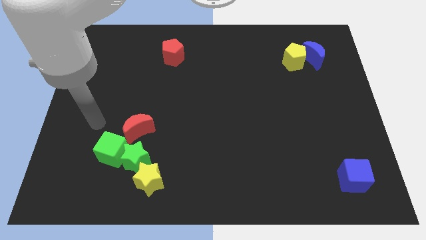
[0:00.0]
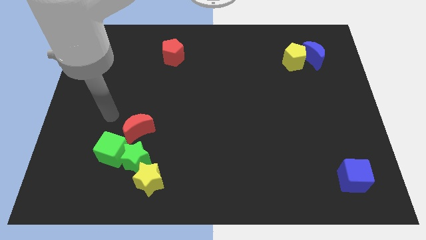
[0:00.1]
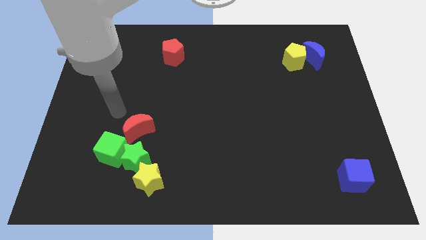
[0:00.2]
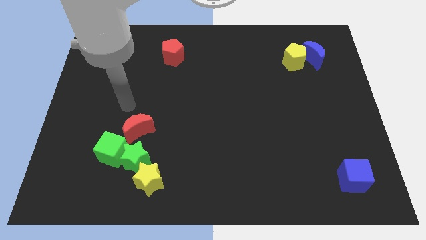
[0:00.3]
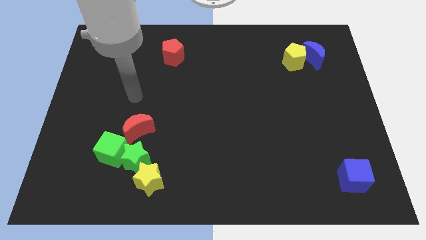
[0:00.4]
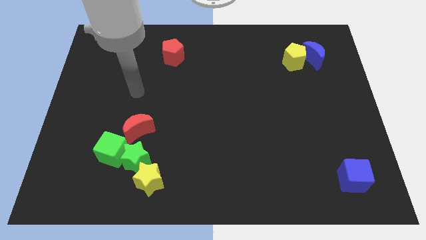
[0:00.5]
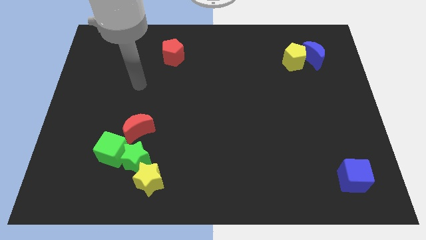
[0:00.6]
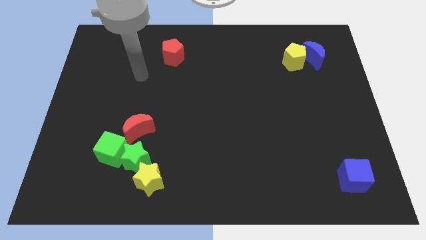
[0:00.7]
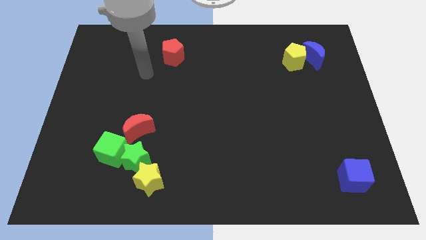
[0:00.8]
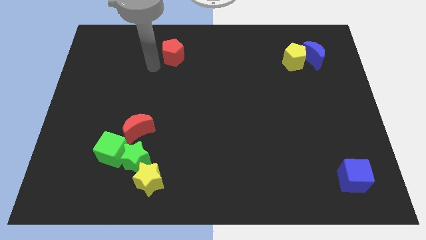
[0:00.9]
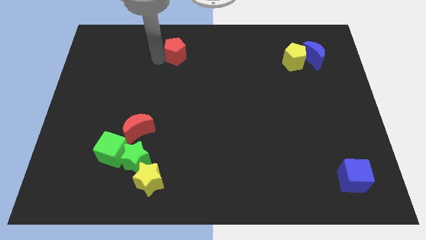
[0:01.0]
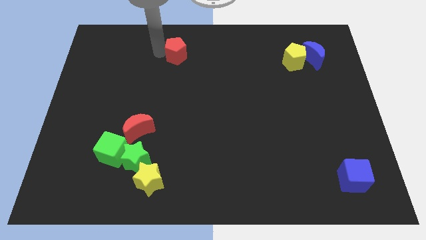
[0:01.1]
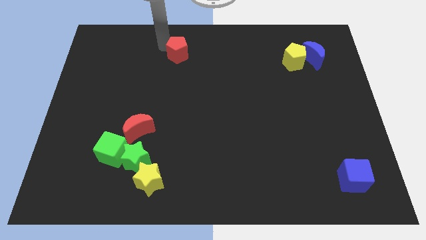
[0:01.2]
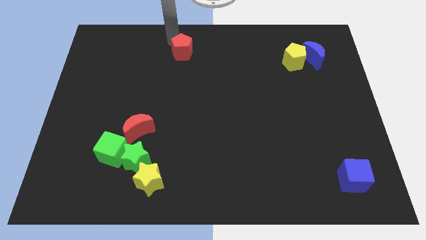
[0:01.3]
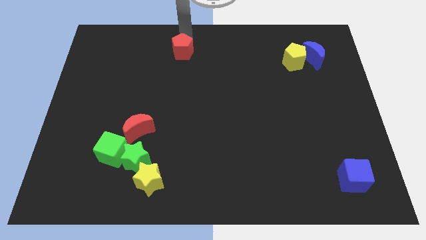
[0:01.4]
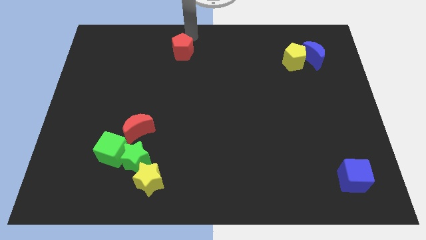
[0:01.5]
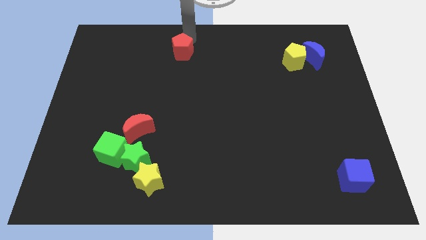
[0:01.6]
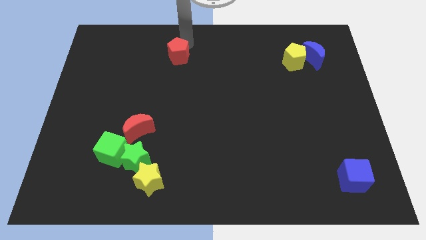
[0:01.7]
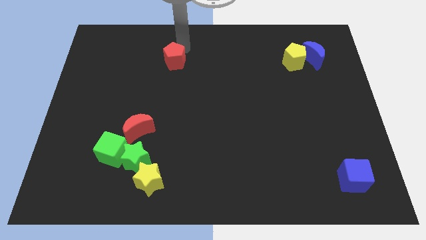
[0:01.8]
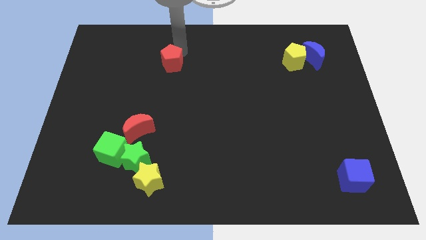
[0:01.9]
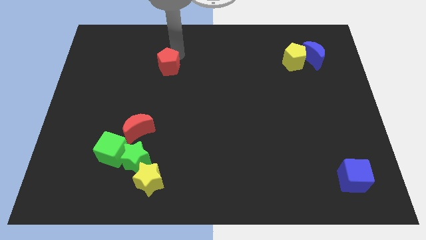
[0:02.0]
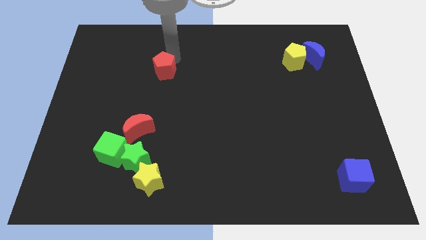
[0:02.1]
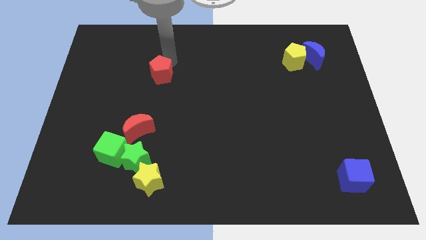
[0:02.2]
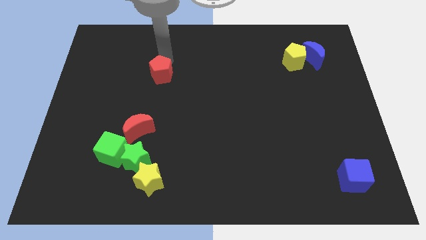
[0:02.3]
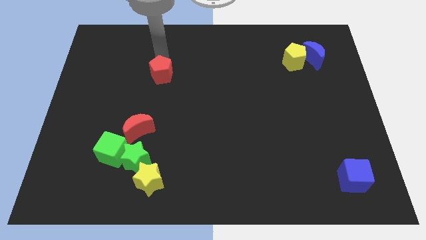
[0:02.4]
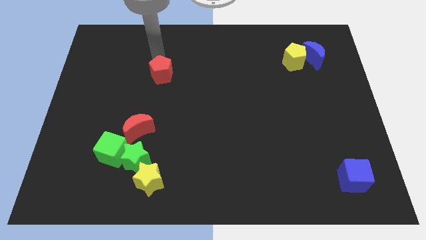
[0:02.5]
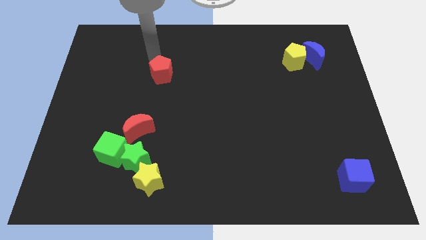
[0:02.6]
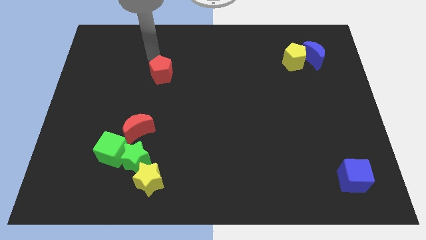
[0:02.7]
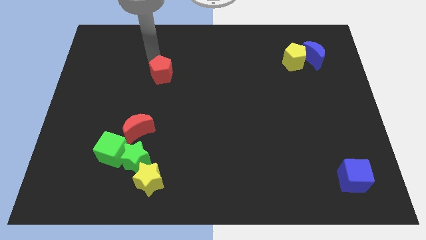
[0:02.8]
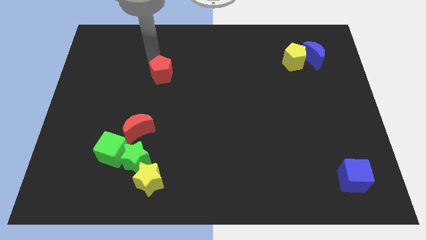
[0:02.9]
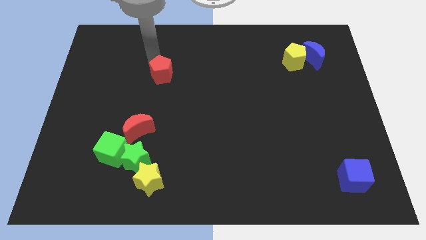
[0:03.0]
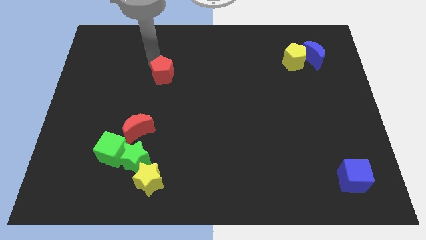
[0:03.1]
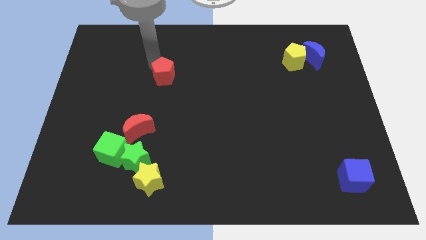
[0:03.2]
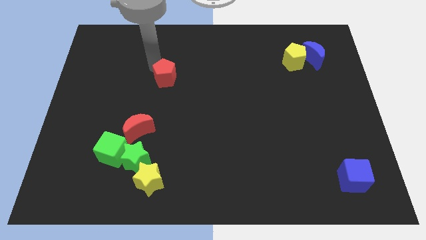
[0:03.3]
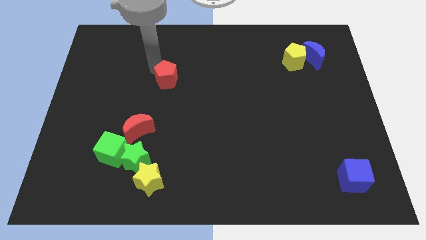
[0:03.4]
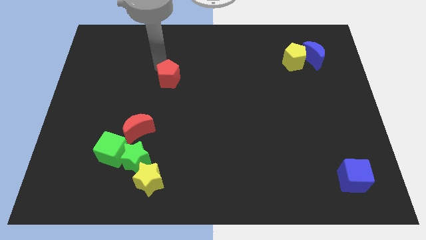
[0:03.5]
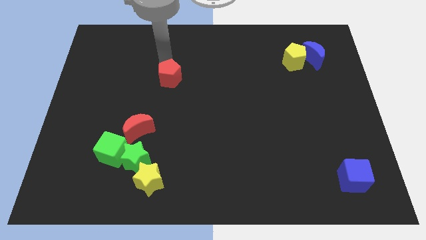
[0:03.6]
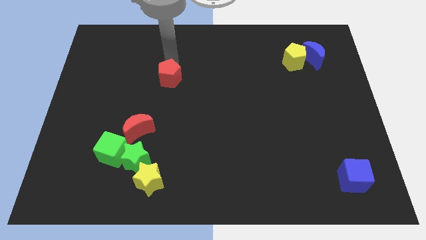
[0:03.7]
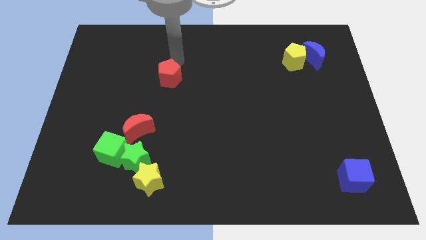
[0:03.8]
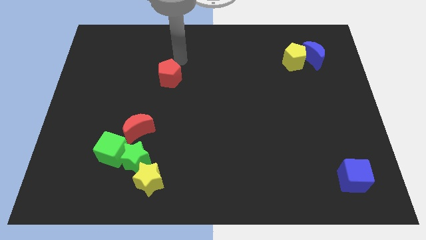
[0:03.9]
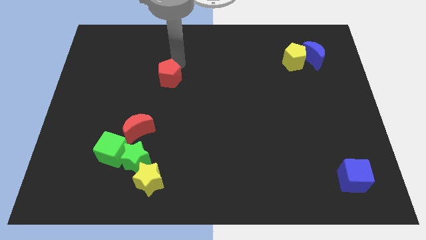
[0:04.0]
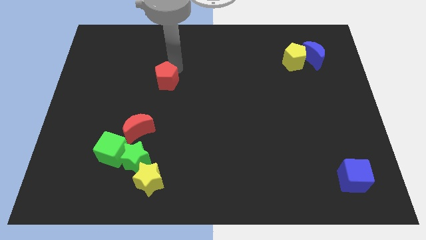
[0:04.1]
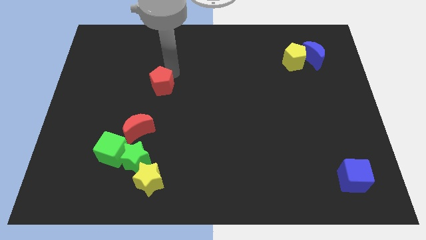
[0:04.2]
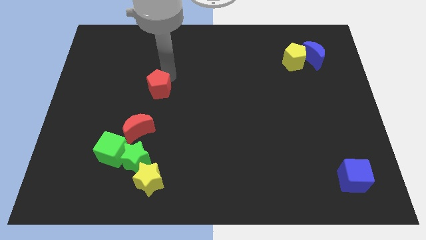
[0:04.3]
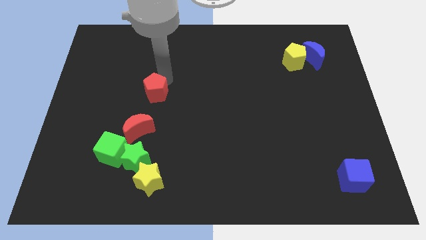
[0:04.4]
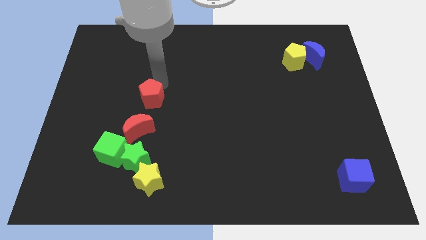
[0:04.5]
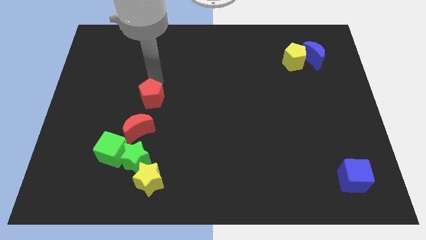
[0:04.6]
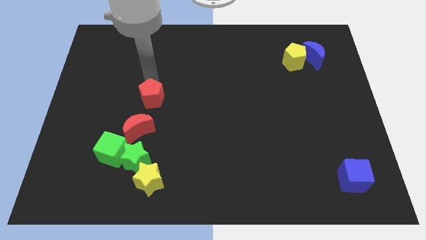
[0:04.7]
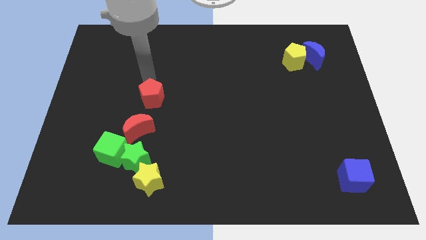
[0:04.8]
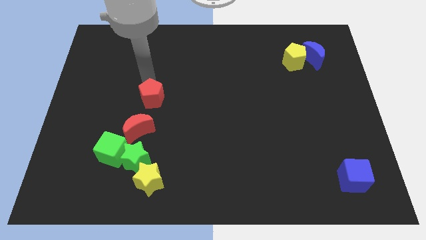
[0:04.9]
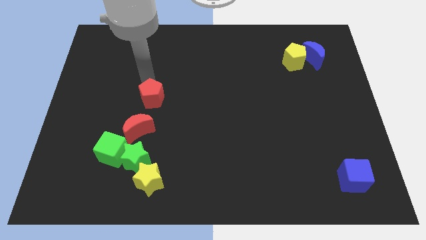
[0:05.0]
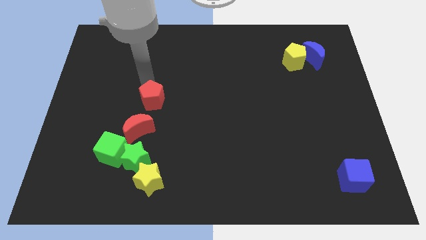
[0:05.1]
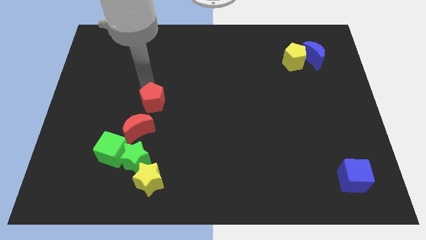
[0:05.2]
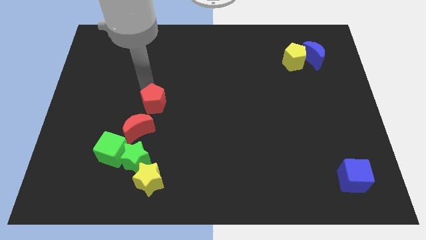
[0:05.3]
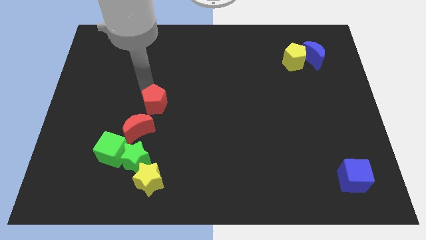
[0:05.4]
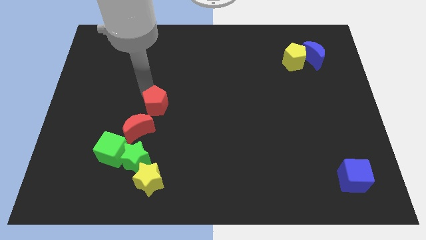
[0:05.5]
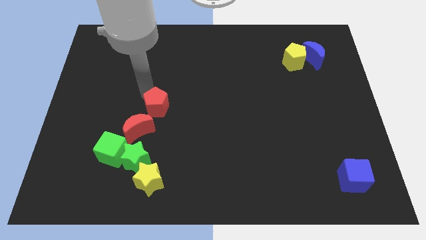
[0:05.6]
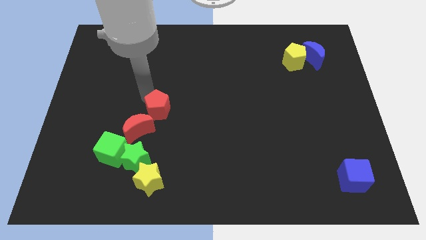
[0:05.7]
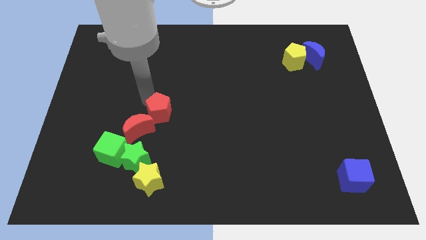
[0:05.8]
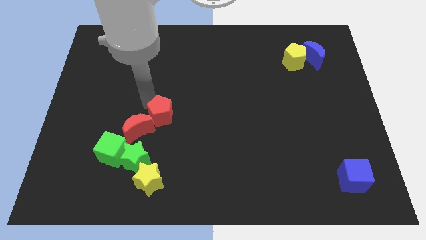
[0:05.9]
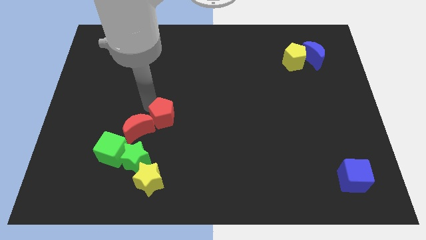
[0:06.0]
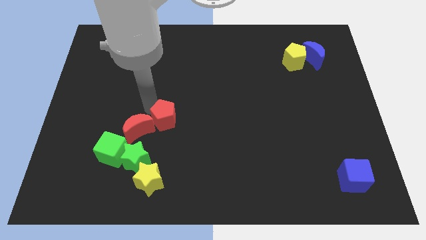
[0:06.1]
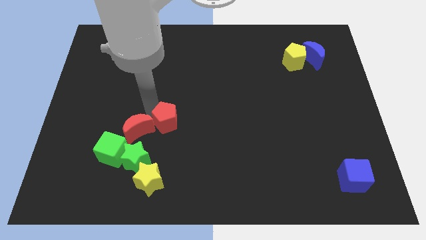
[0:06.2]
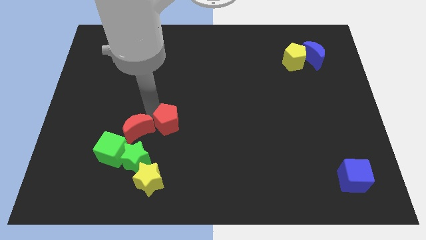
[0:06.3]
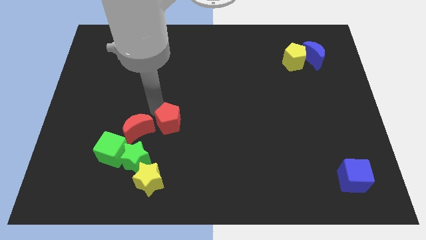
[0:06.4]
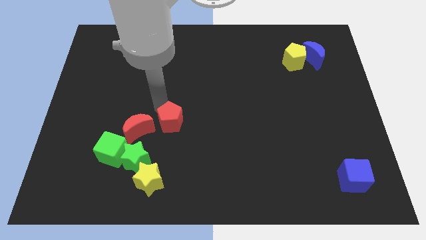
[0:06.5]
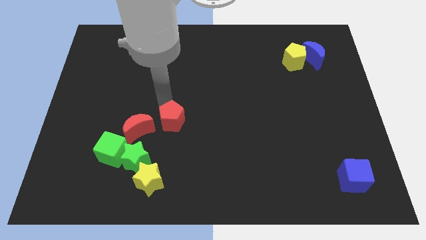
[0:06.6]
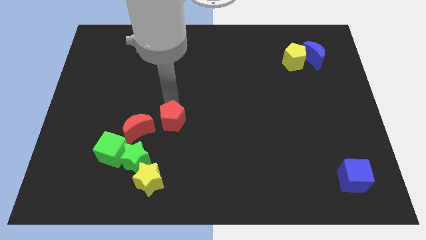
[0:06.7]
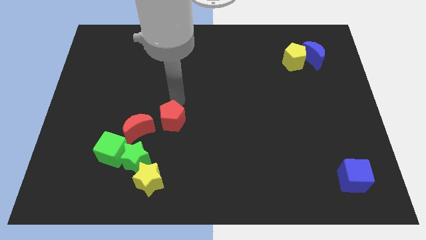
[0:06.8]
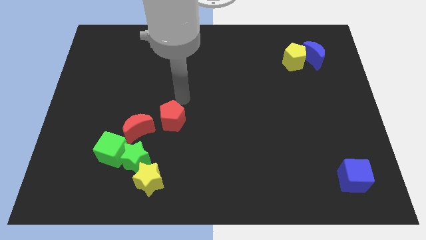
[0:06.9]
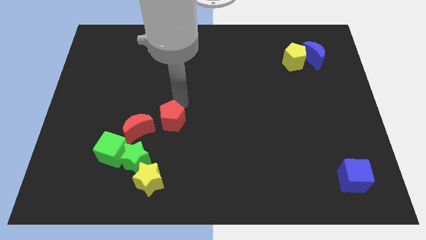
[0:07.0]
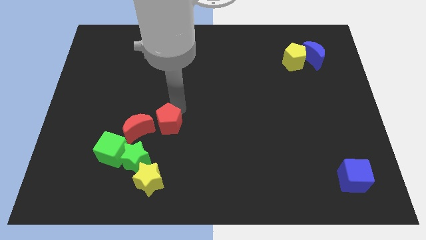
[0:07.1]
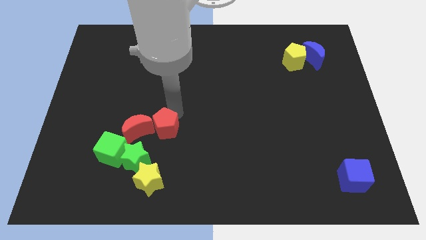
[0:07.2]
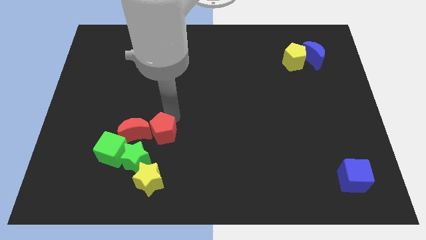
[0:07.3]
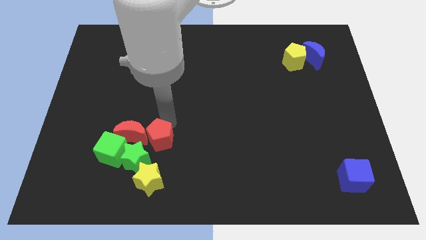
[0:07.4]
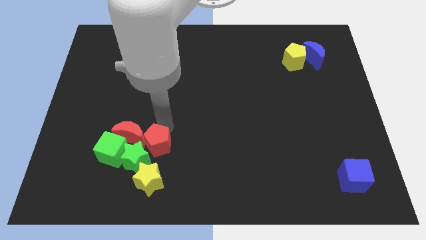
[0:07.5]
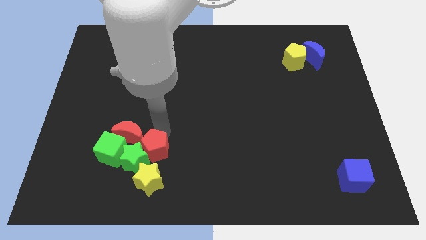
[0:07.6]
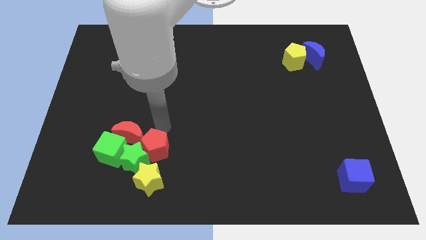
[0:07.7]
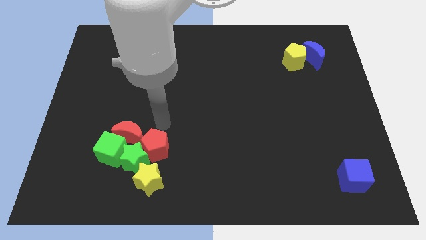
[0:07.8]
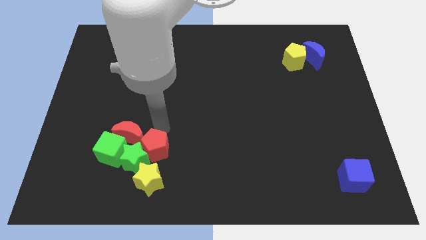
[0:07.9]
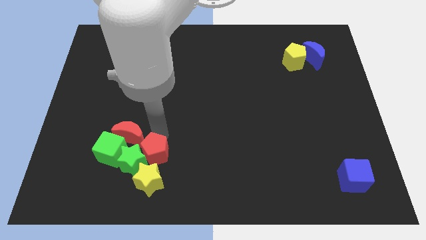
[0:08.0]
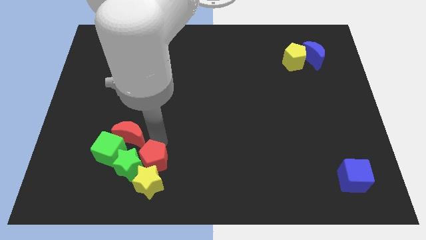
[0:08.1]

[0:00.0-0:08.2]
push the red pentagon close to the yellow star
